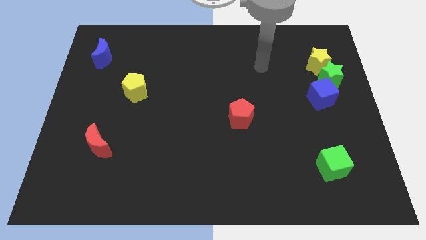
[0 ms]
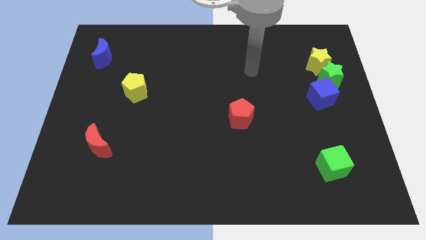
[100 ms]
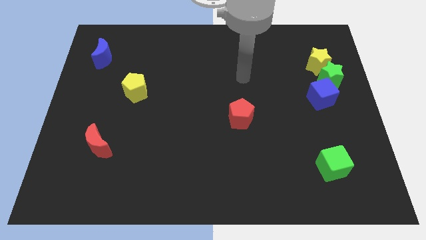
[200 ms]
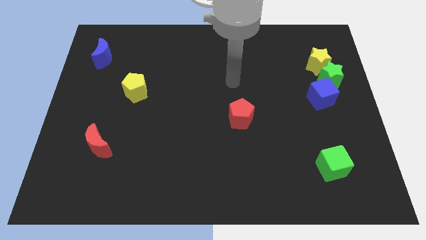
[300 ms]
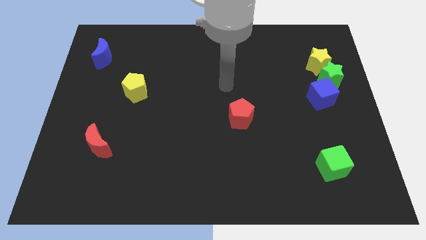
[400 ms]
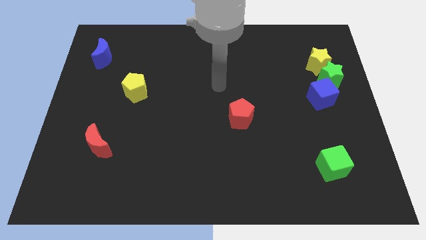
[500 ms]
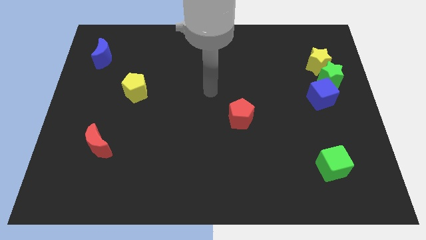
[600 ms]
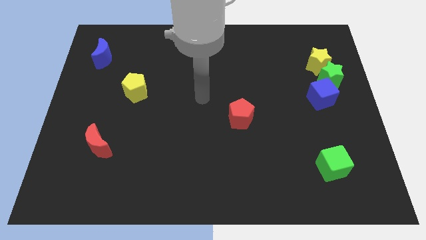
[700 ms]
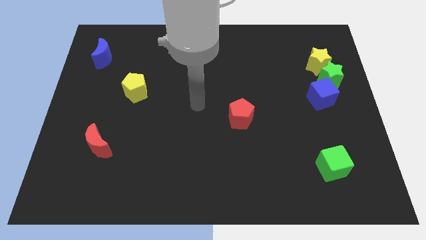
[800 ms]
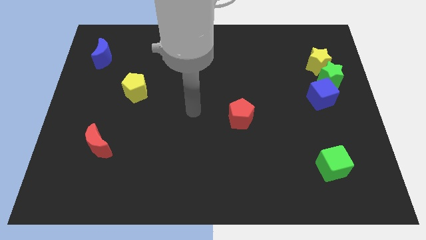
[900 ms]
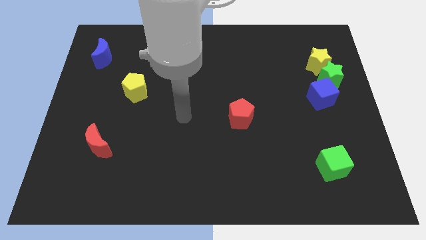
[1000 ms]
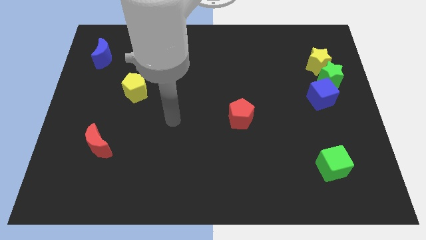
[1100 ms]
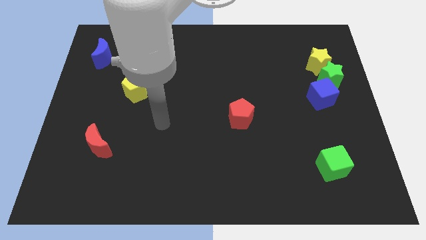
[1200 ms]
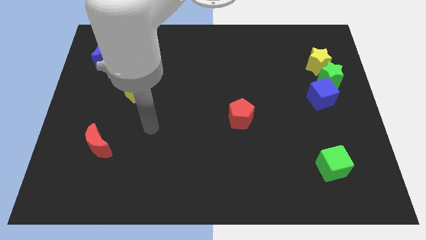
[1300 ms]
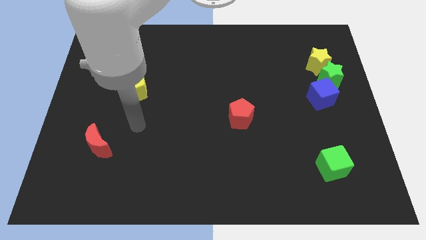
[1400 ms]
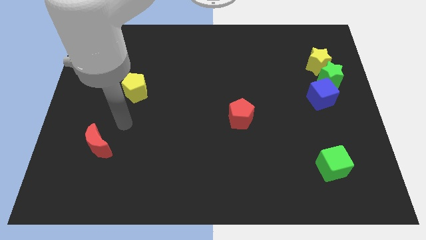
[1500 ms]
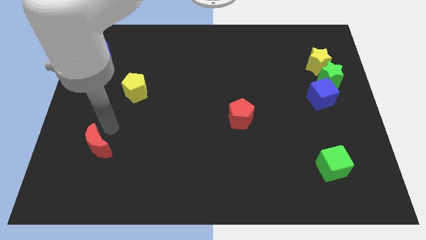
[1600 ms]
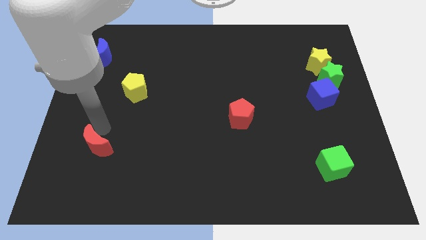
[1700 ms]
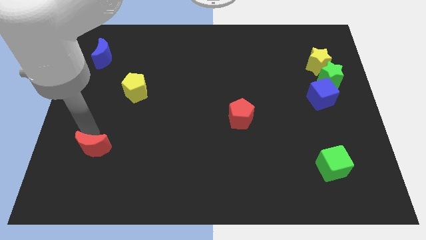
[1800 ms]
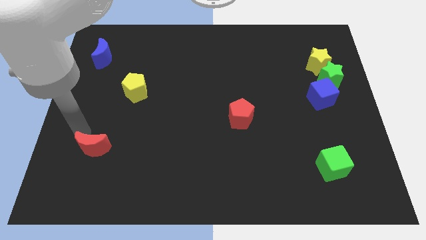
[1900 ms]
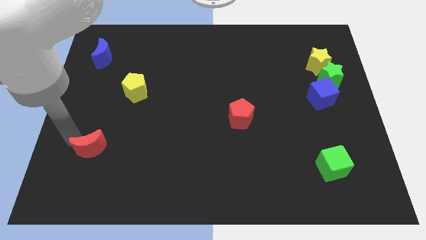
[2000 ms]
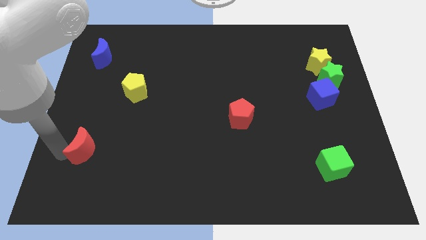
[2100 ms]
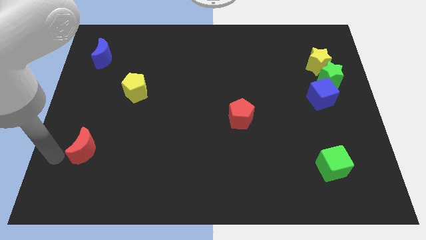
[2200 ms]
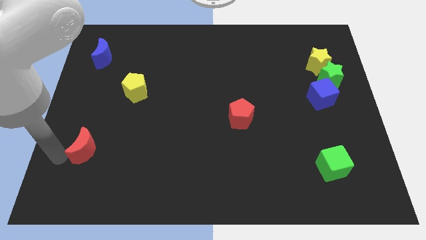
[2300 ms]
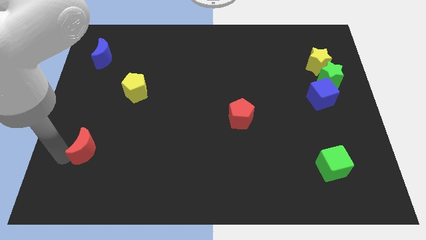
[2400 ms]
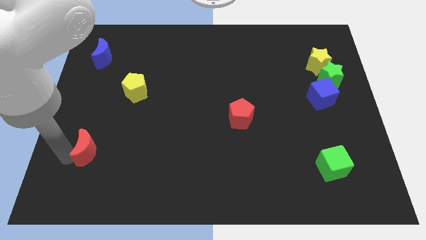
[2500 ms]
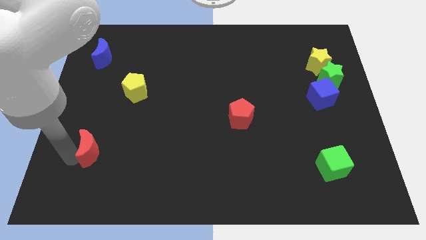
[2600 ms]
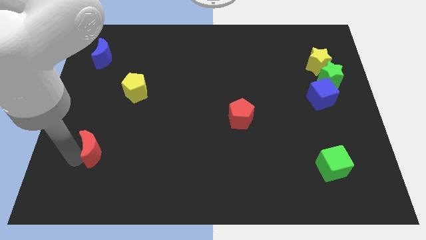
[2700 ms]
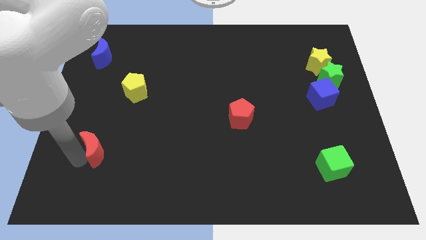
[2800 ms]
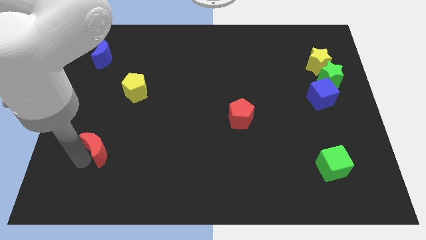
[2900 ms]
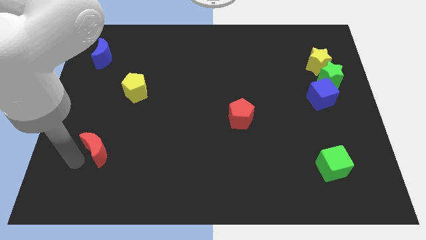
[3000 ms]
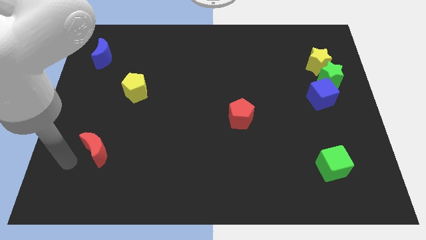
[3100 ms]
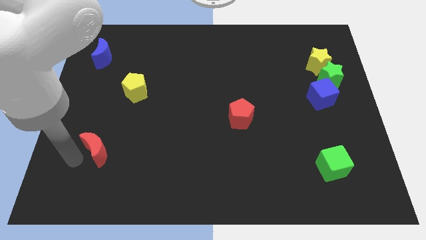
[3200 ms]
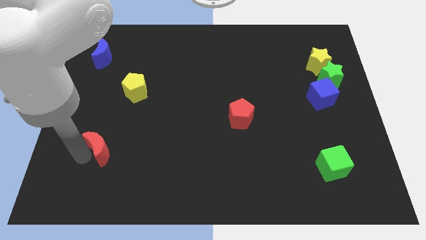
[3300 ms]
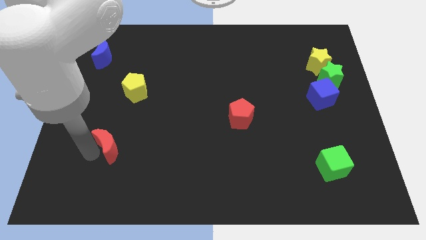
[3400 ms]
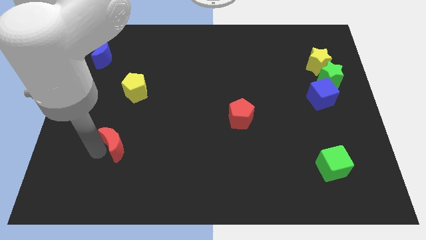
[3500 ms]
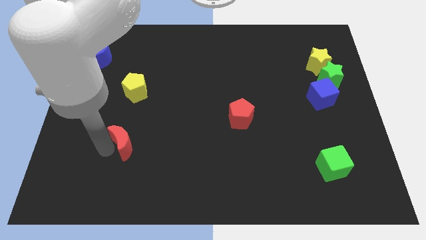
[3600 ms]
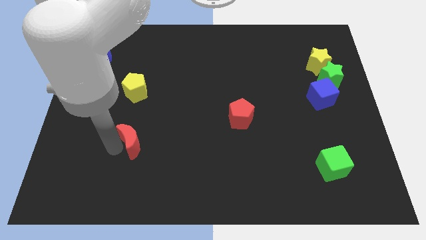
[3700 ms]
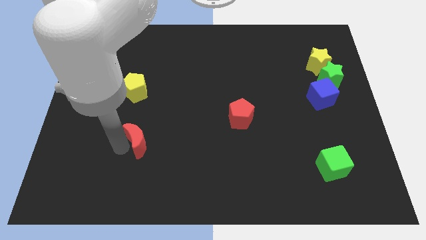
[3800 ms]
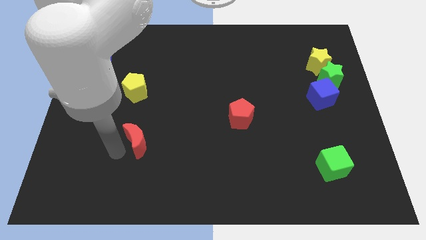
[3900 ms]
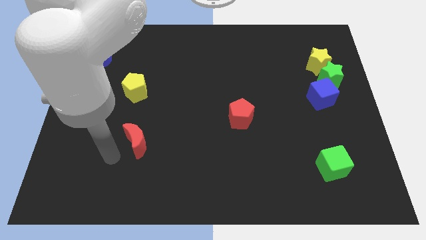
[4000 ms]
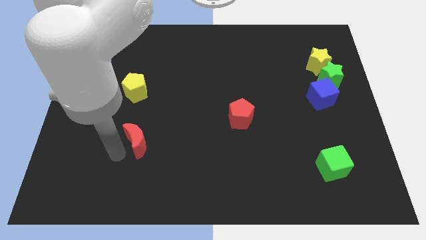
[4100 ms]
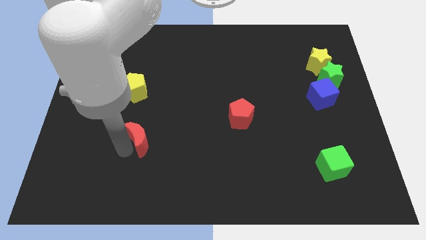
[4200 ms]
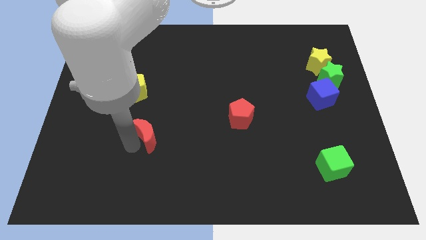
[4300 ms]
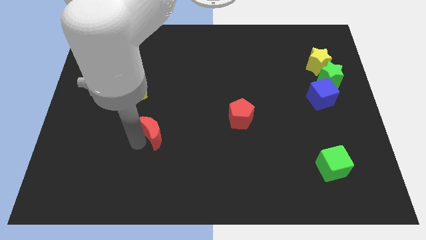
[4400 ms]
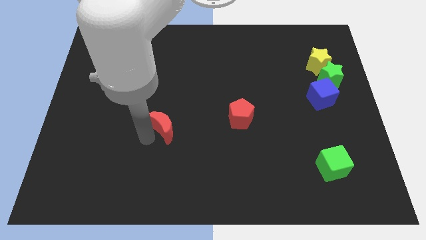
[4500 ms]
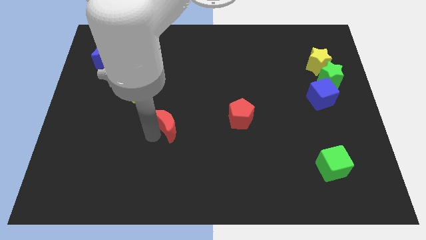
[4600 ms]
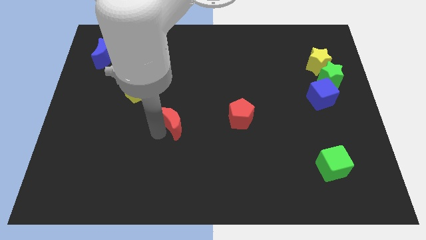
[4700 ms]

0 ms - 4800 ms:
move the red moon to the center

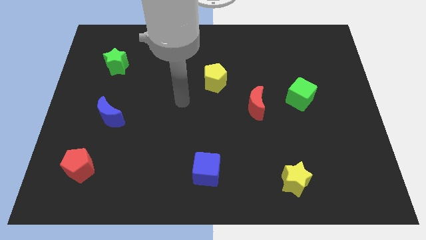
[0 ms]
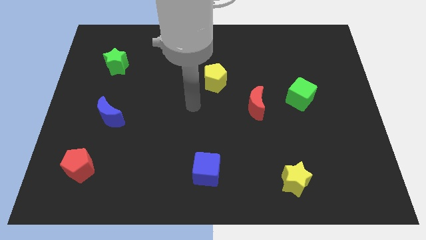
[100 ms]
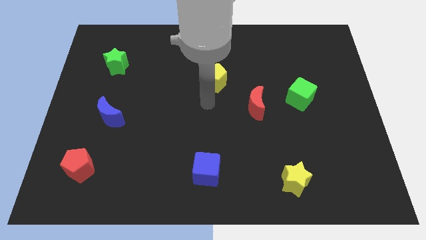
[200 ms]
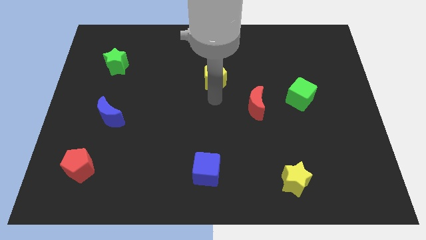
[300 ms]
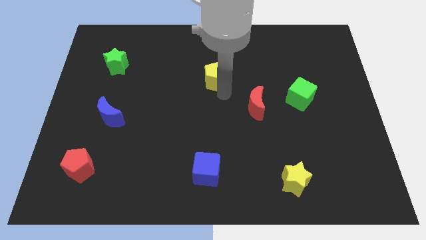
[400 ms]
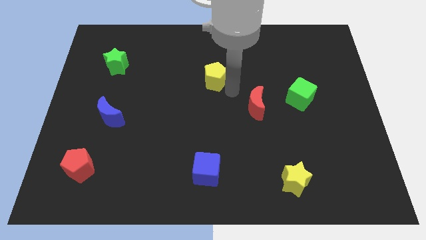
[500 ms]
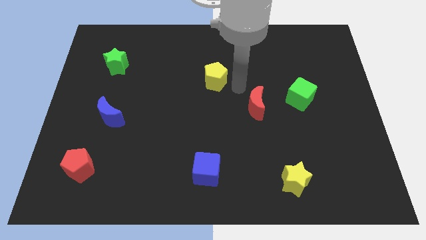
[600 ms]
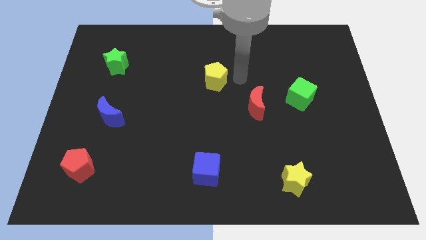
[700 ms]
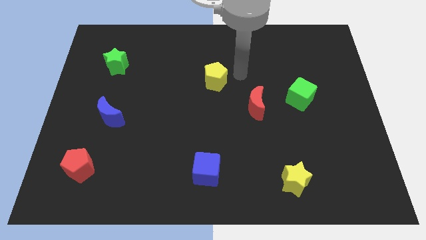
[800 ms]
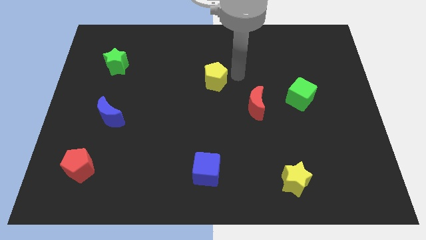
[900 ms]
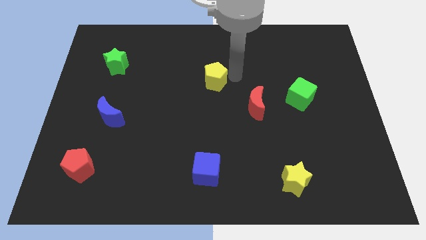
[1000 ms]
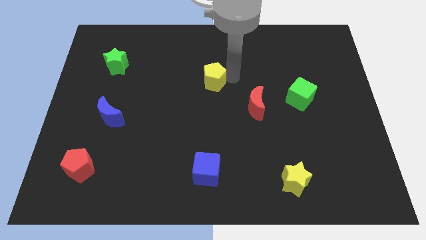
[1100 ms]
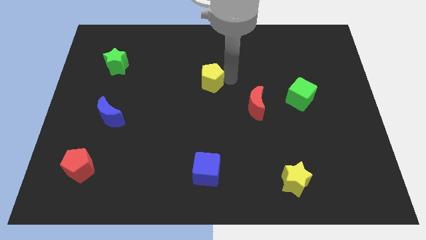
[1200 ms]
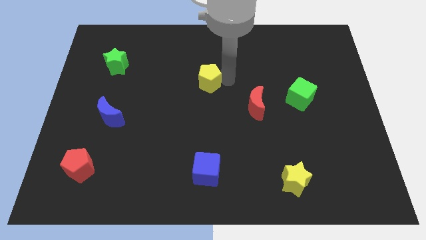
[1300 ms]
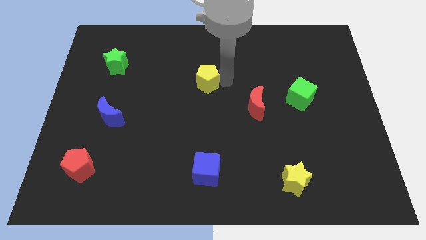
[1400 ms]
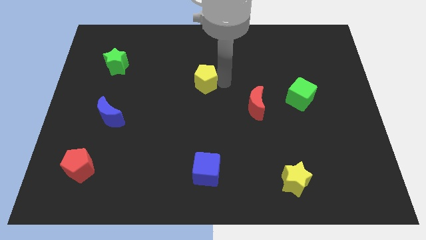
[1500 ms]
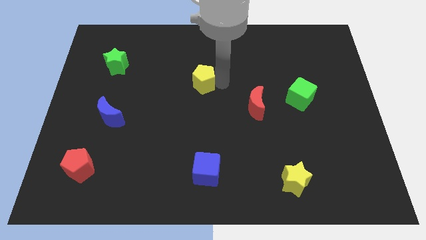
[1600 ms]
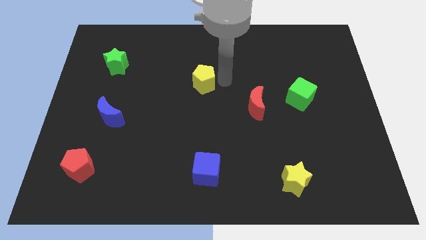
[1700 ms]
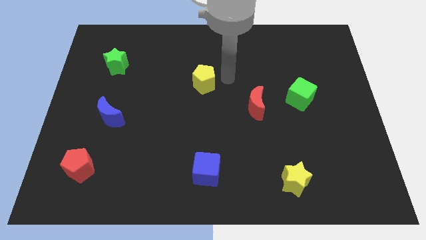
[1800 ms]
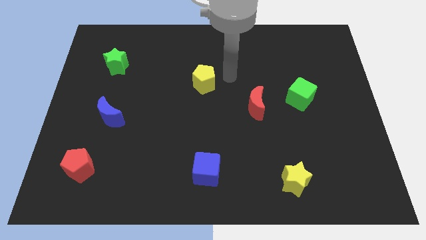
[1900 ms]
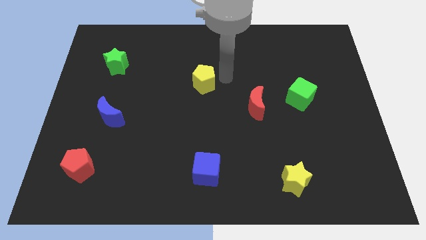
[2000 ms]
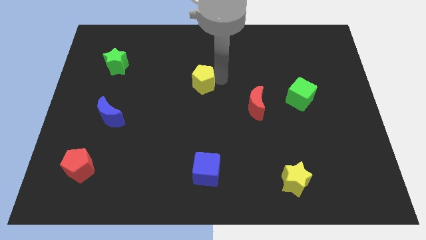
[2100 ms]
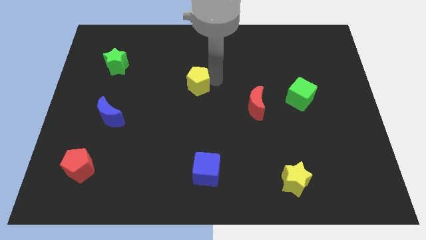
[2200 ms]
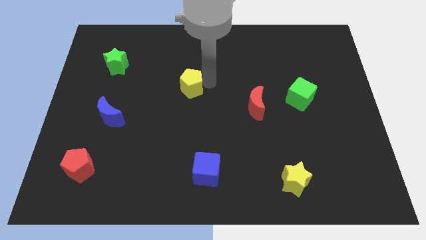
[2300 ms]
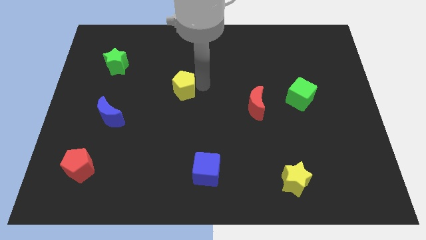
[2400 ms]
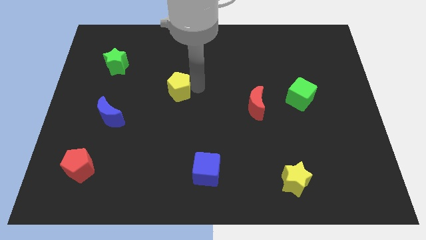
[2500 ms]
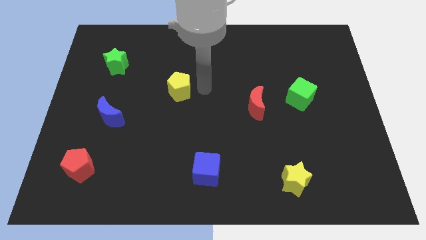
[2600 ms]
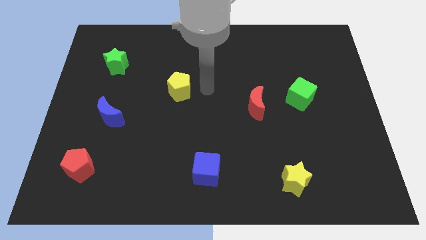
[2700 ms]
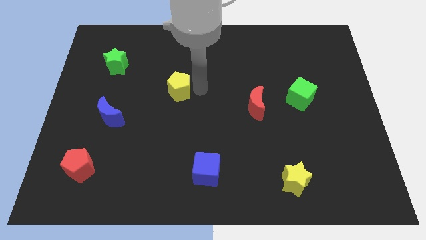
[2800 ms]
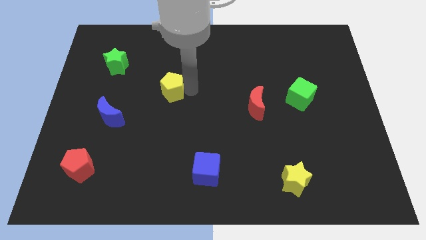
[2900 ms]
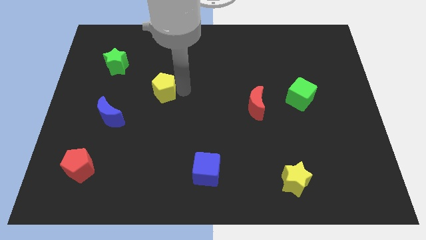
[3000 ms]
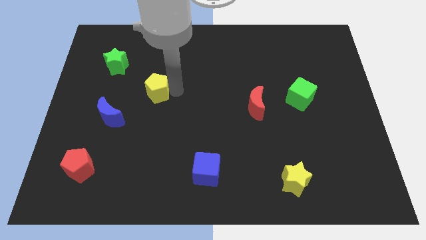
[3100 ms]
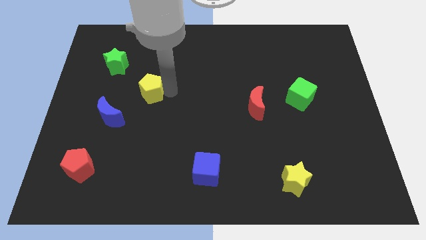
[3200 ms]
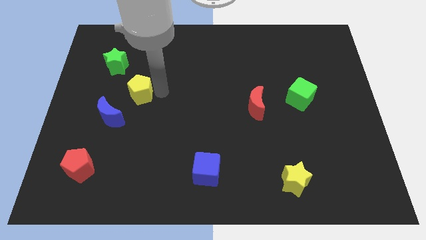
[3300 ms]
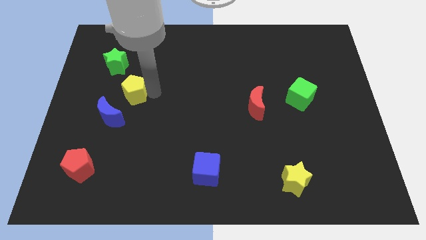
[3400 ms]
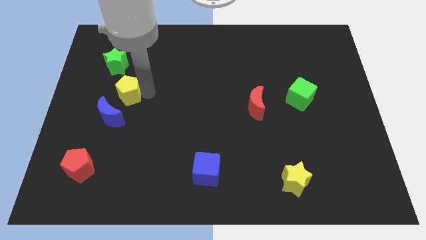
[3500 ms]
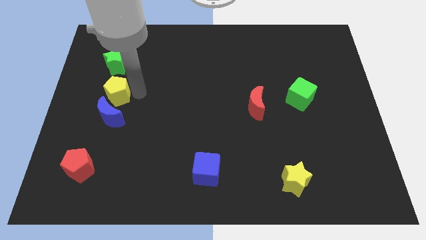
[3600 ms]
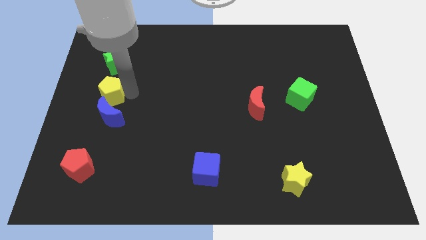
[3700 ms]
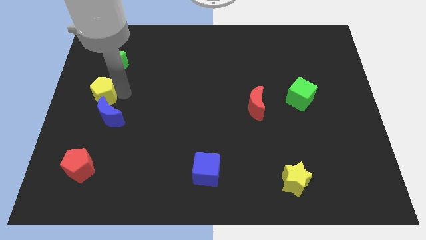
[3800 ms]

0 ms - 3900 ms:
put the yellow pentagon to the center left
